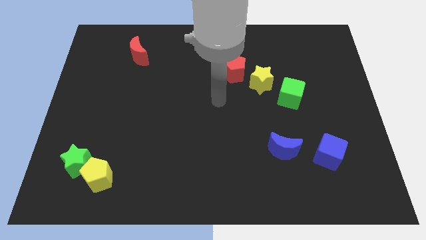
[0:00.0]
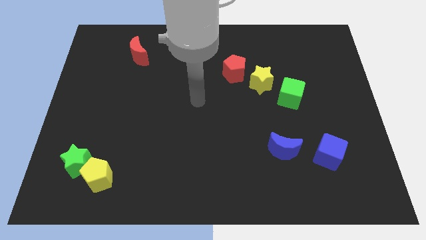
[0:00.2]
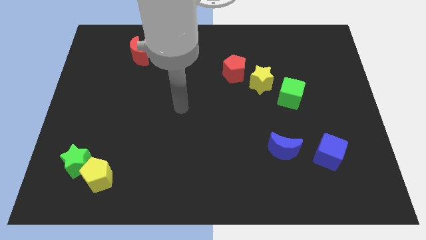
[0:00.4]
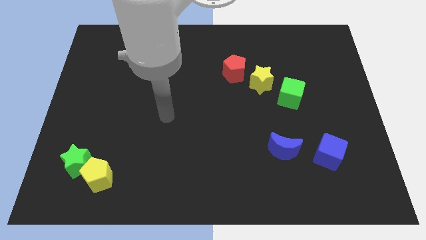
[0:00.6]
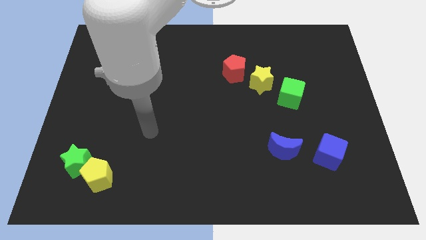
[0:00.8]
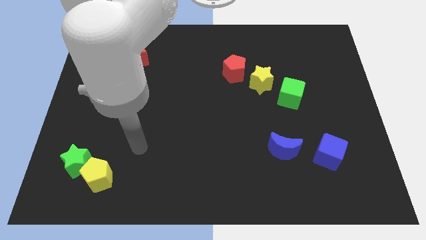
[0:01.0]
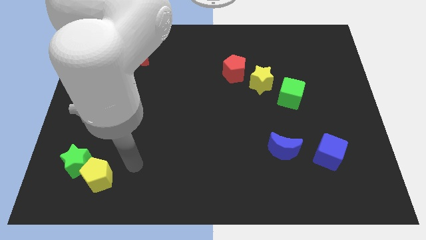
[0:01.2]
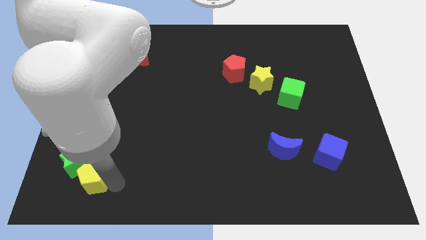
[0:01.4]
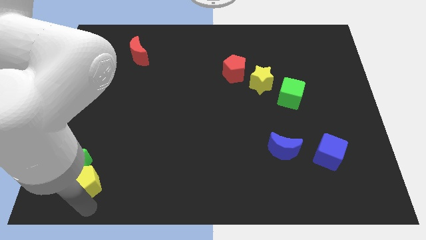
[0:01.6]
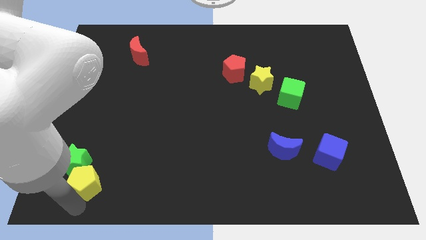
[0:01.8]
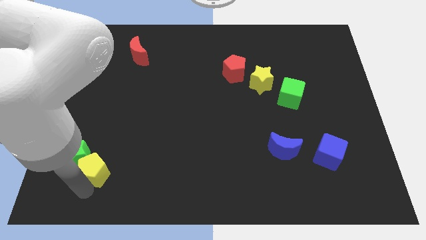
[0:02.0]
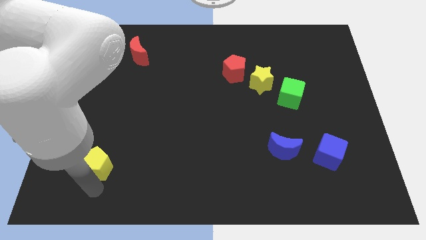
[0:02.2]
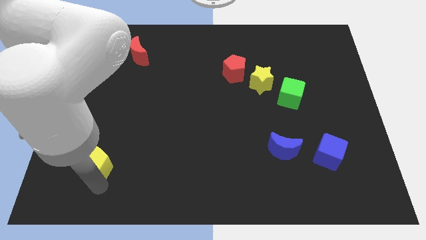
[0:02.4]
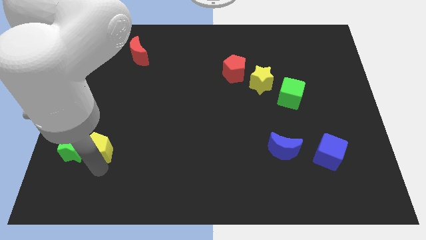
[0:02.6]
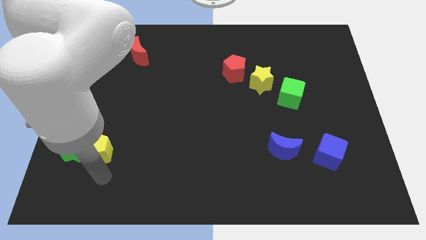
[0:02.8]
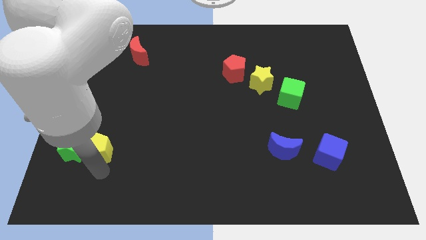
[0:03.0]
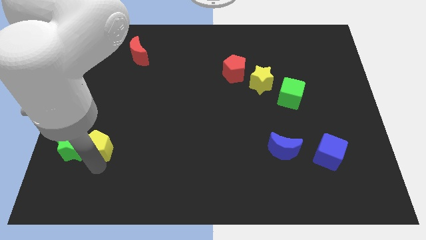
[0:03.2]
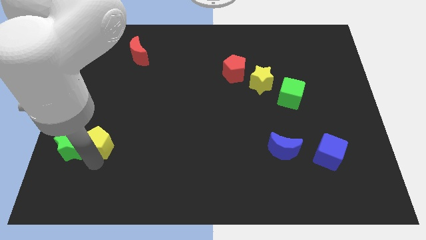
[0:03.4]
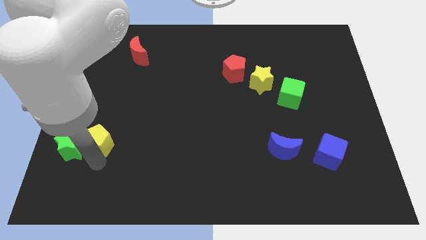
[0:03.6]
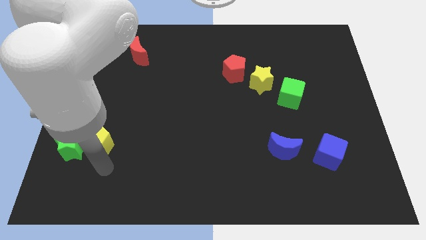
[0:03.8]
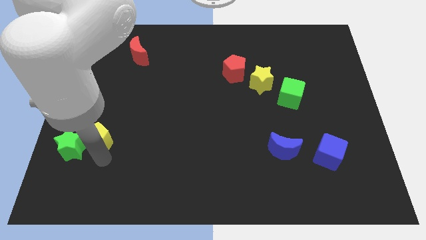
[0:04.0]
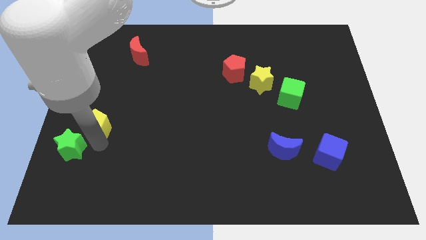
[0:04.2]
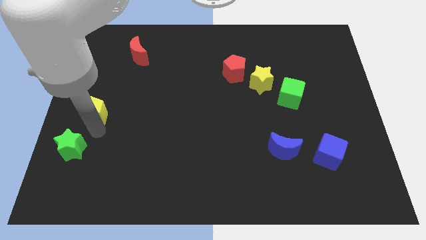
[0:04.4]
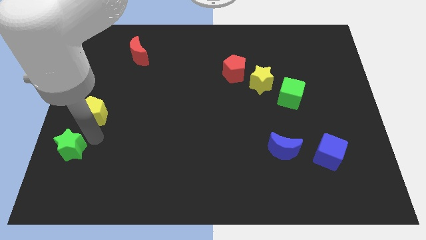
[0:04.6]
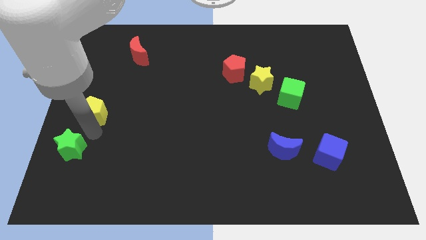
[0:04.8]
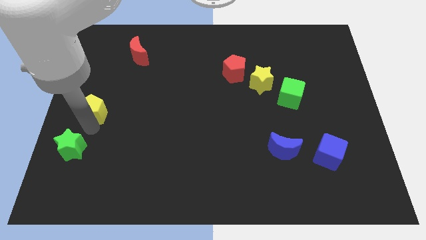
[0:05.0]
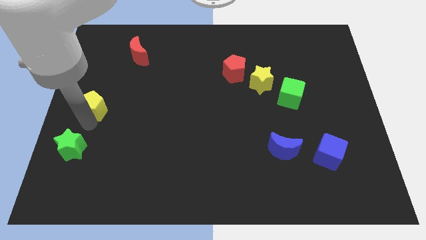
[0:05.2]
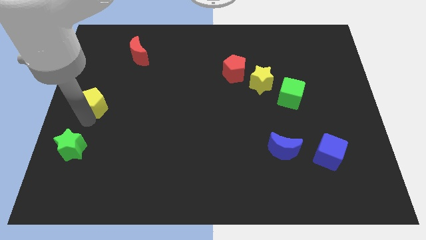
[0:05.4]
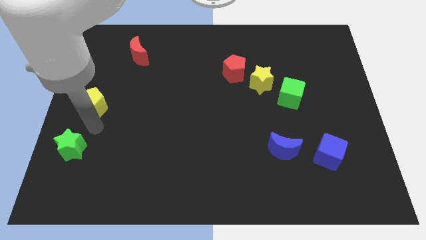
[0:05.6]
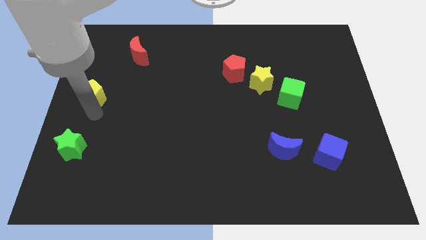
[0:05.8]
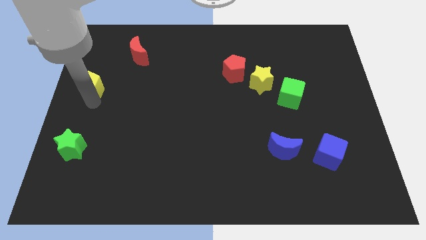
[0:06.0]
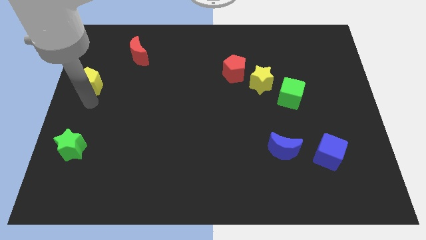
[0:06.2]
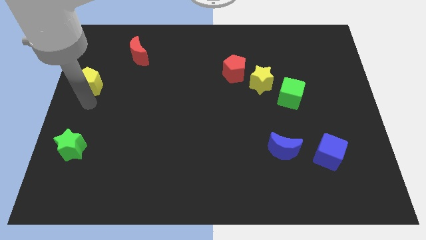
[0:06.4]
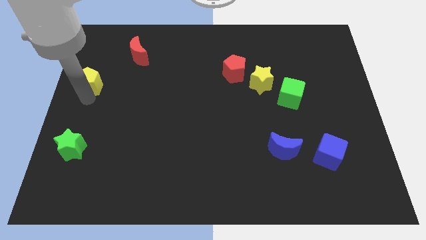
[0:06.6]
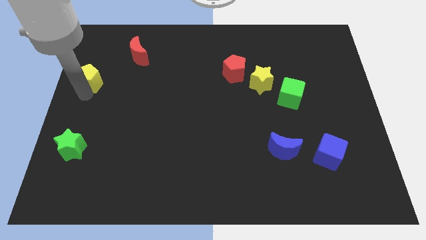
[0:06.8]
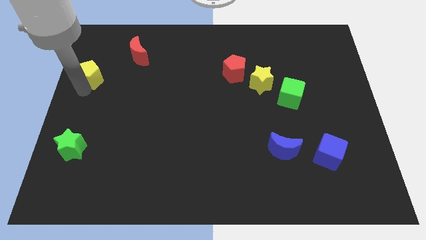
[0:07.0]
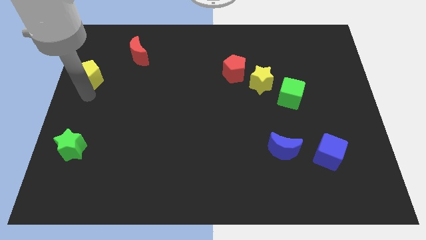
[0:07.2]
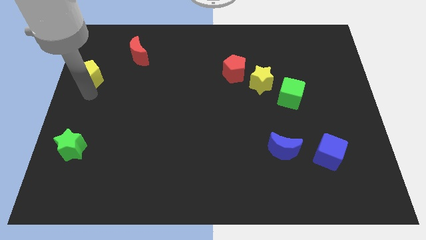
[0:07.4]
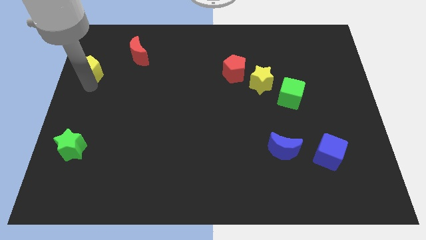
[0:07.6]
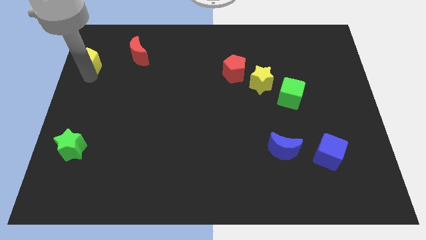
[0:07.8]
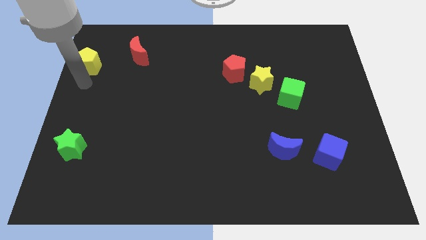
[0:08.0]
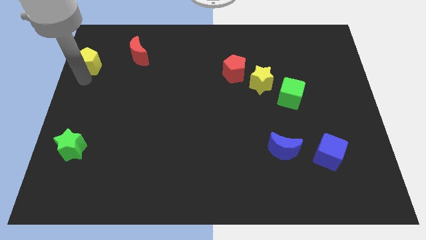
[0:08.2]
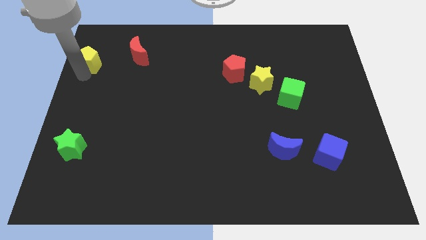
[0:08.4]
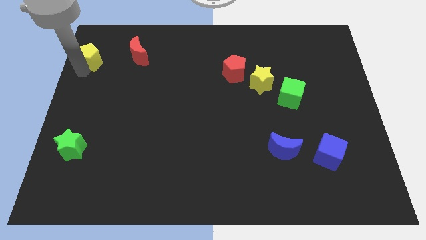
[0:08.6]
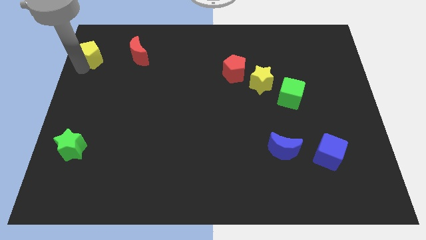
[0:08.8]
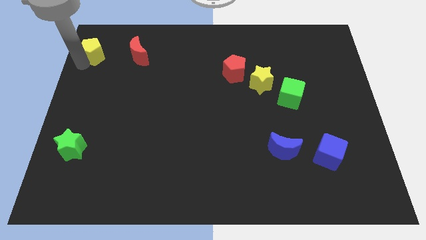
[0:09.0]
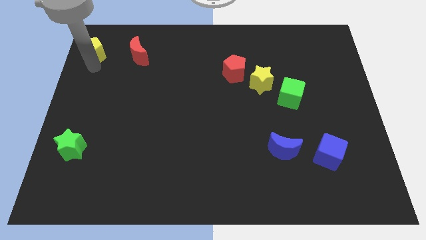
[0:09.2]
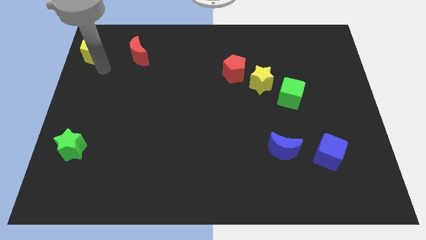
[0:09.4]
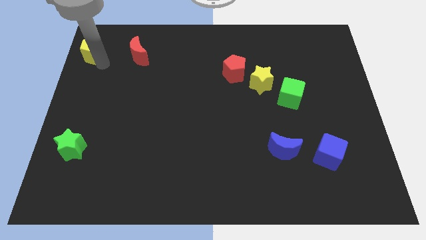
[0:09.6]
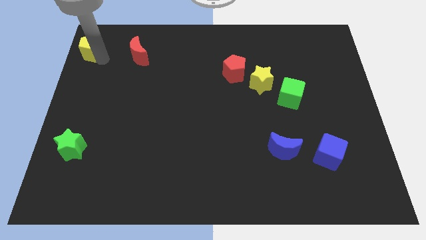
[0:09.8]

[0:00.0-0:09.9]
push the yellow pentagon to the top left

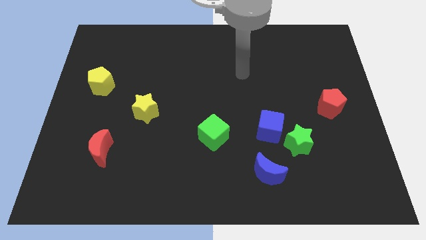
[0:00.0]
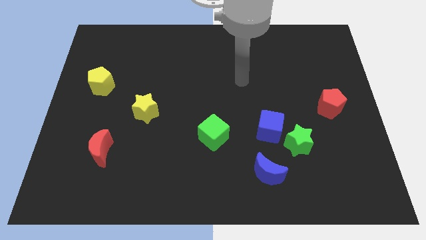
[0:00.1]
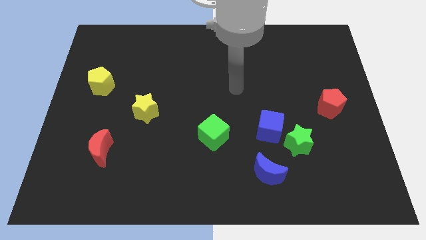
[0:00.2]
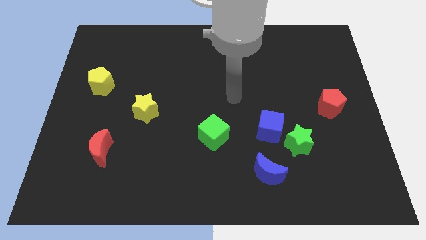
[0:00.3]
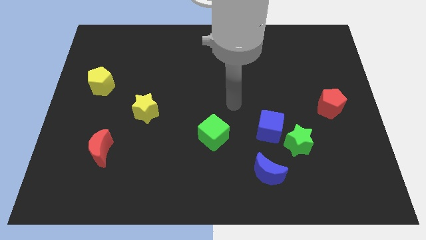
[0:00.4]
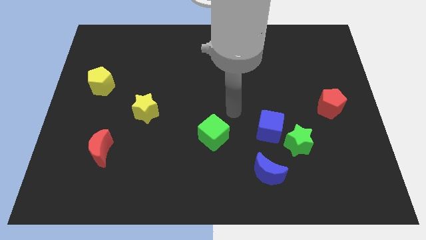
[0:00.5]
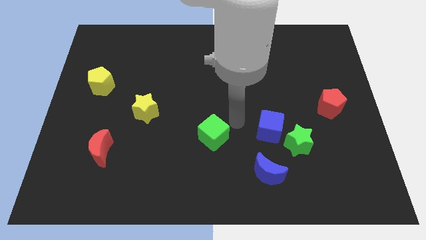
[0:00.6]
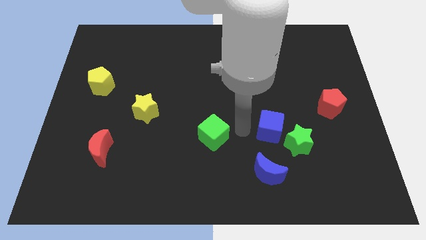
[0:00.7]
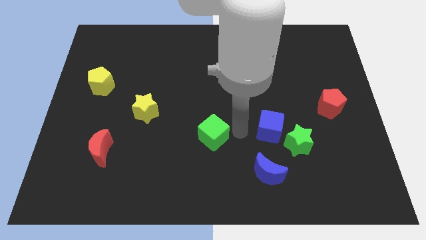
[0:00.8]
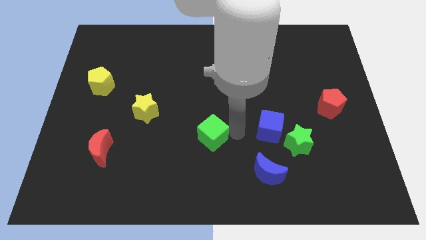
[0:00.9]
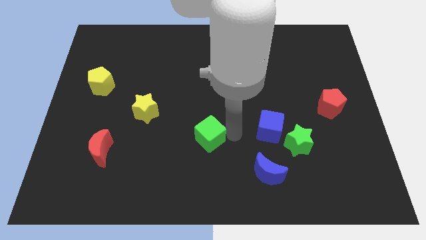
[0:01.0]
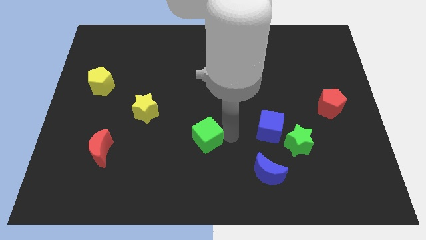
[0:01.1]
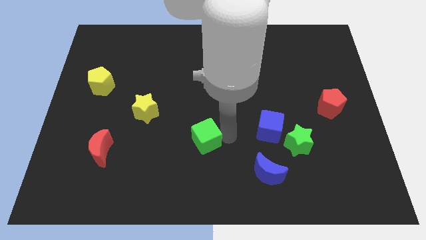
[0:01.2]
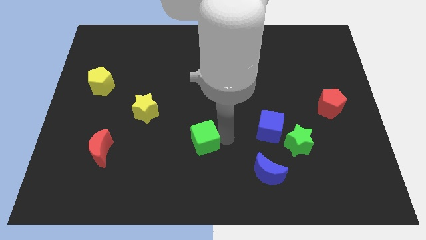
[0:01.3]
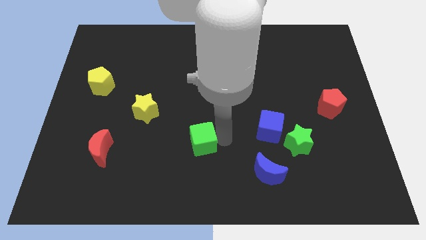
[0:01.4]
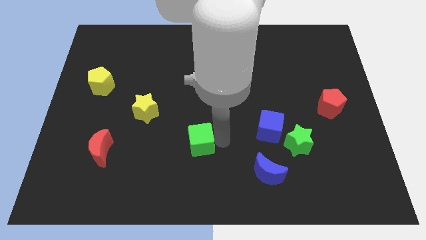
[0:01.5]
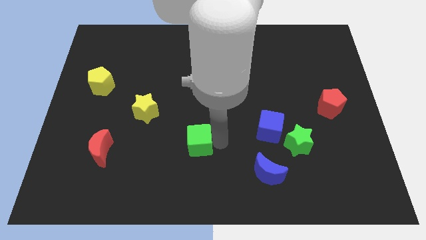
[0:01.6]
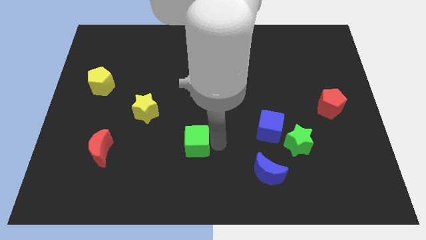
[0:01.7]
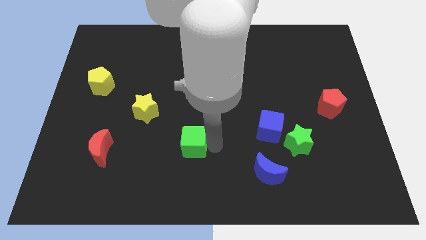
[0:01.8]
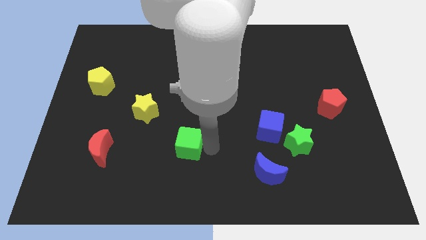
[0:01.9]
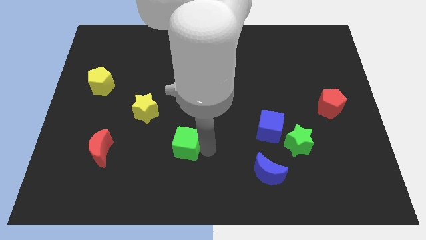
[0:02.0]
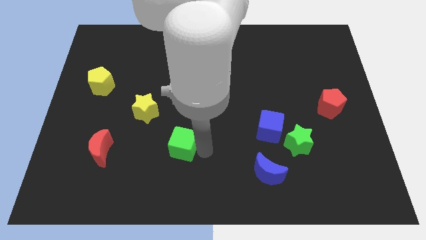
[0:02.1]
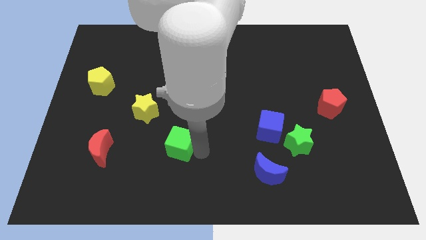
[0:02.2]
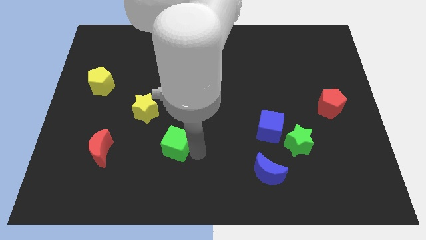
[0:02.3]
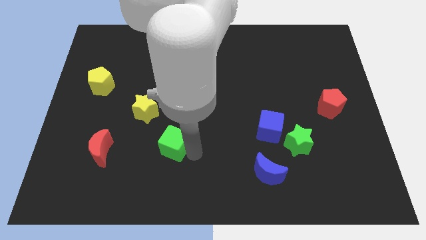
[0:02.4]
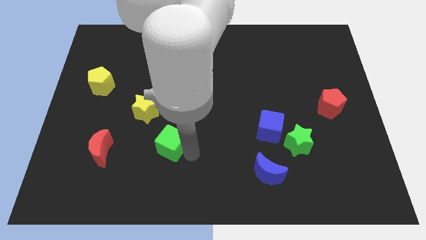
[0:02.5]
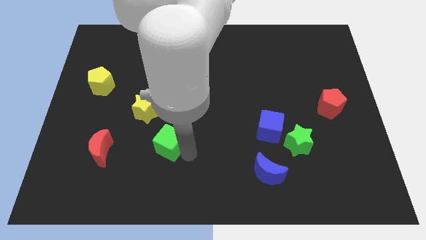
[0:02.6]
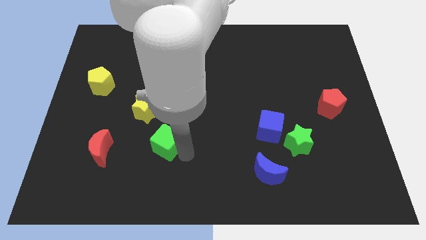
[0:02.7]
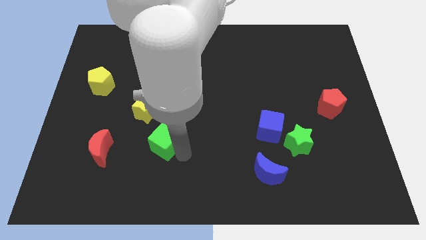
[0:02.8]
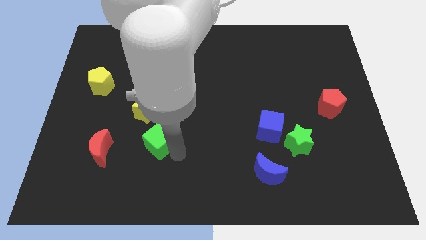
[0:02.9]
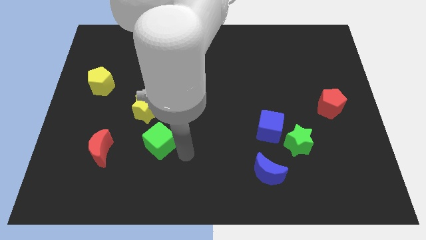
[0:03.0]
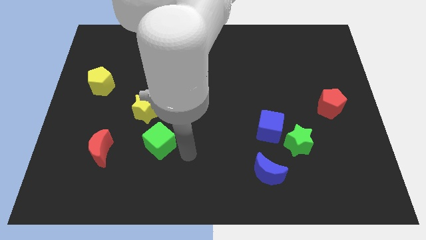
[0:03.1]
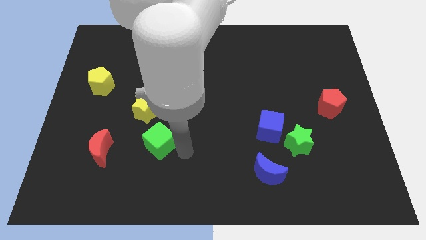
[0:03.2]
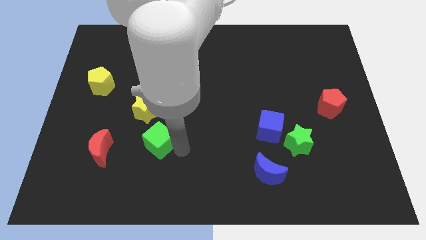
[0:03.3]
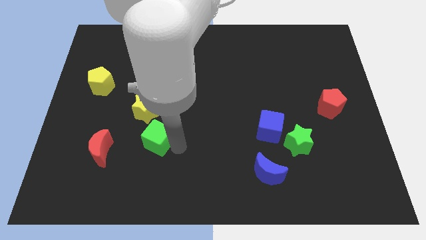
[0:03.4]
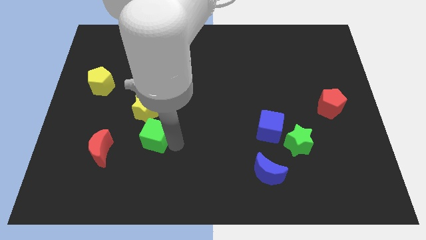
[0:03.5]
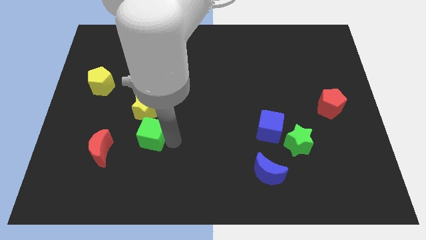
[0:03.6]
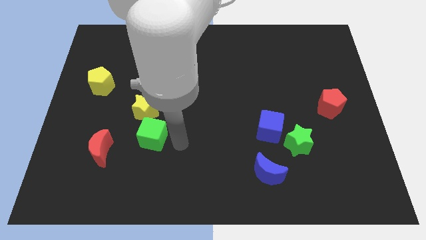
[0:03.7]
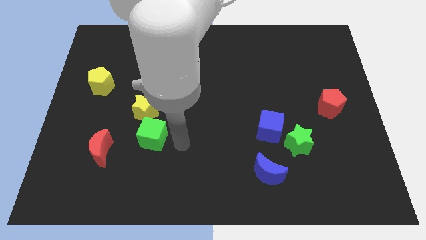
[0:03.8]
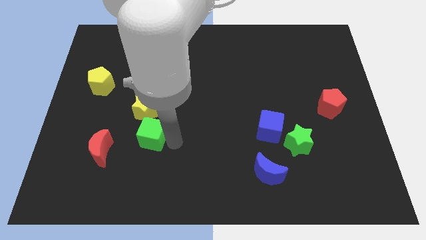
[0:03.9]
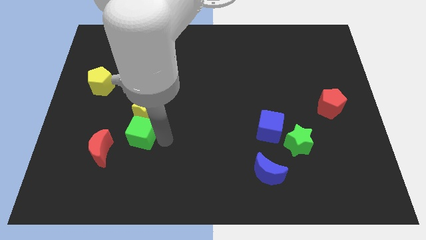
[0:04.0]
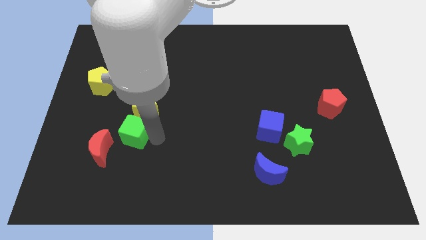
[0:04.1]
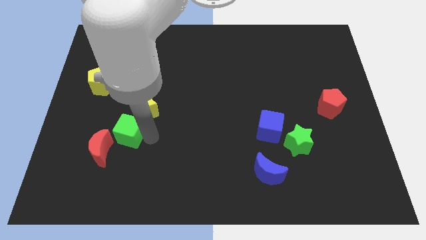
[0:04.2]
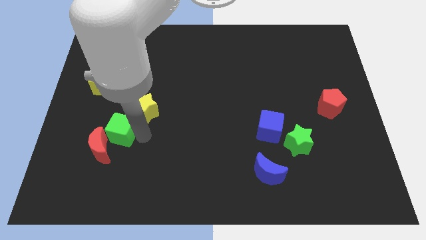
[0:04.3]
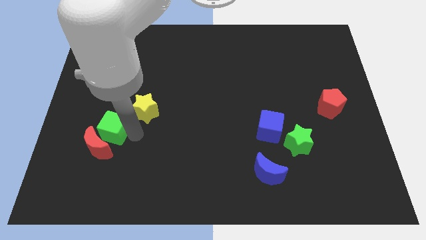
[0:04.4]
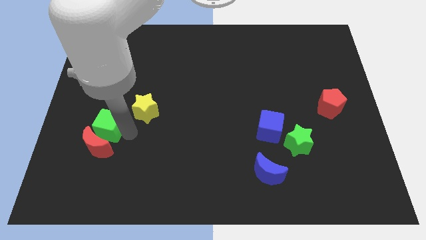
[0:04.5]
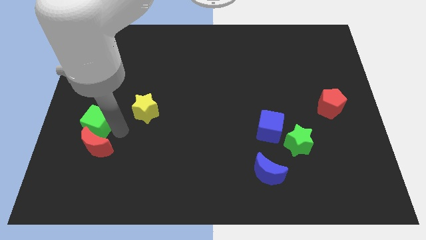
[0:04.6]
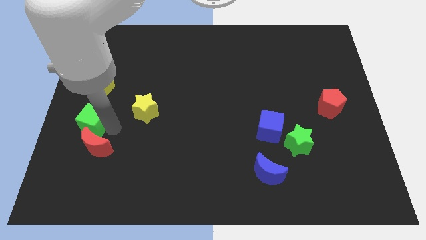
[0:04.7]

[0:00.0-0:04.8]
move the green cube to the left side of the board
